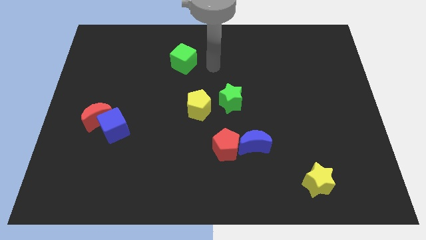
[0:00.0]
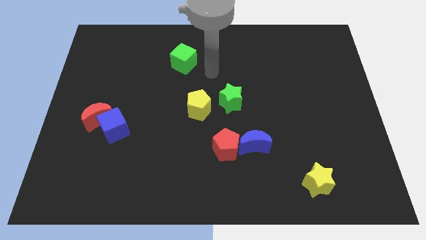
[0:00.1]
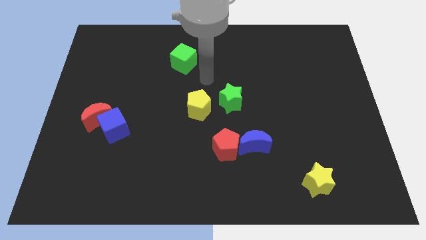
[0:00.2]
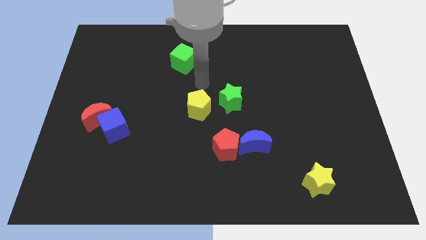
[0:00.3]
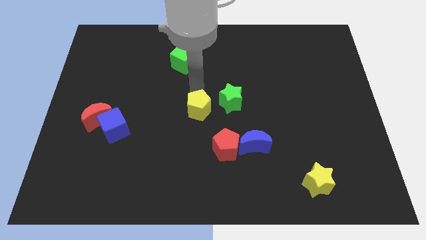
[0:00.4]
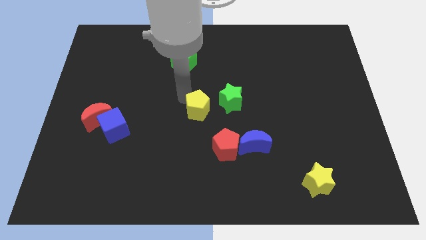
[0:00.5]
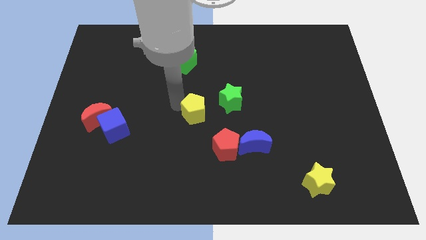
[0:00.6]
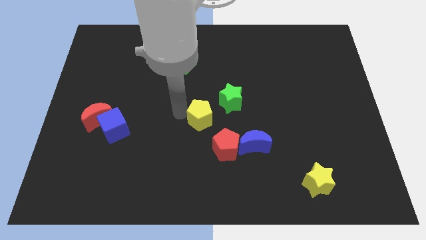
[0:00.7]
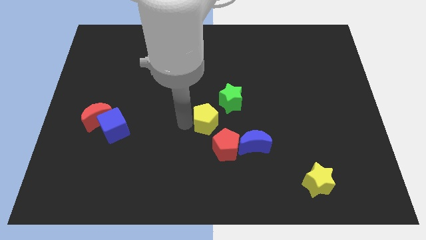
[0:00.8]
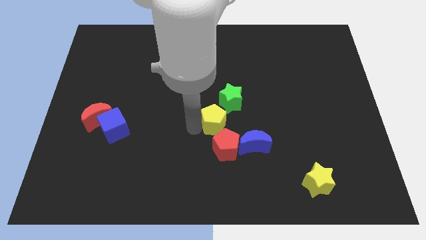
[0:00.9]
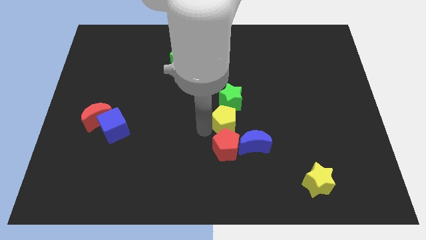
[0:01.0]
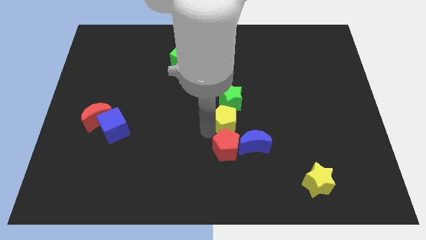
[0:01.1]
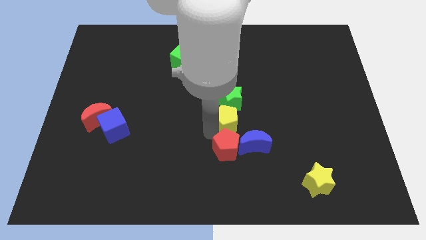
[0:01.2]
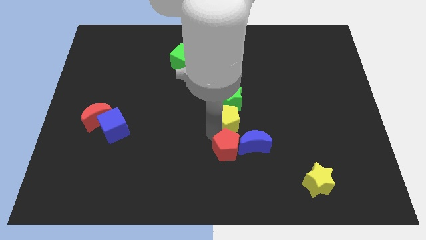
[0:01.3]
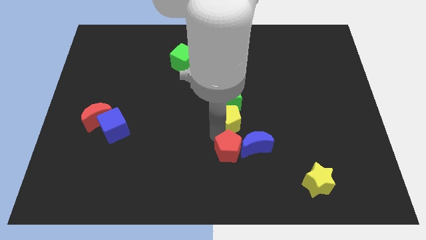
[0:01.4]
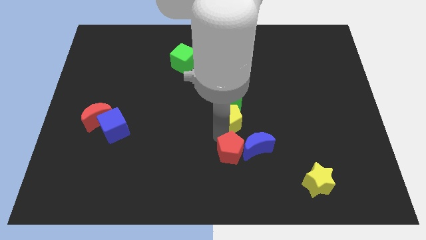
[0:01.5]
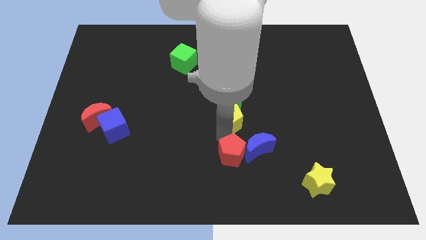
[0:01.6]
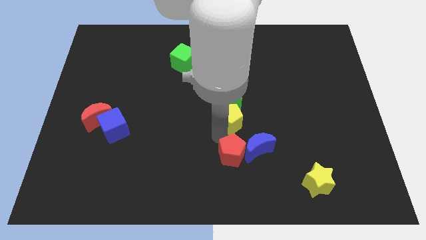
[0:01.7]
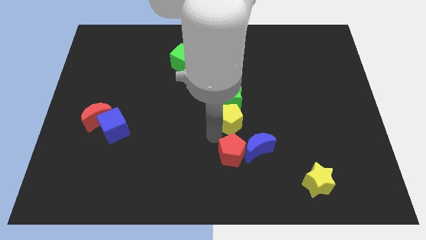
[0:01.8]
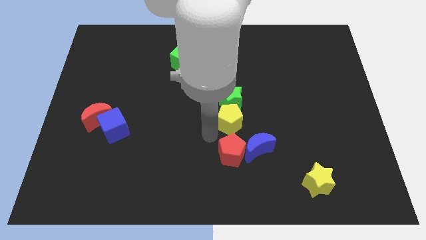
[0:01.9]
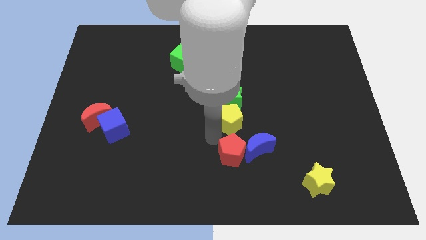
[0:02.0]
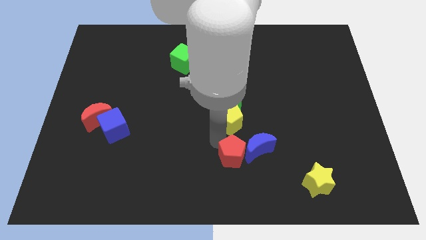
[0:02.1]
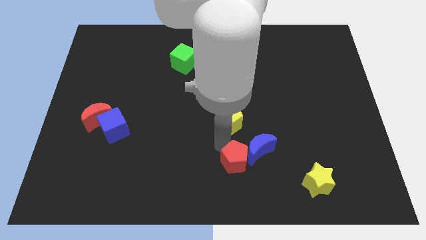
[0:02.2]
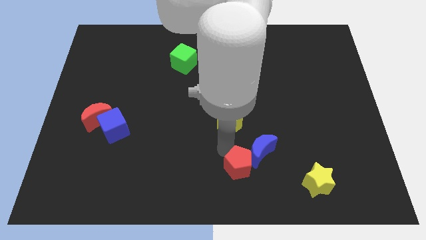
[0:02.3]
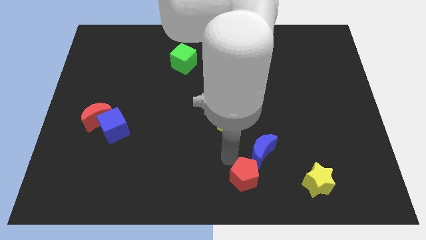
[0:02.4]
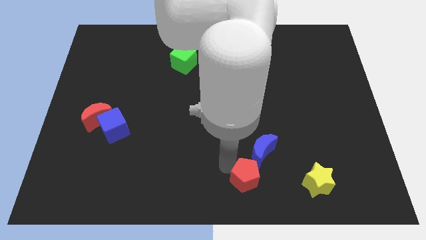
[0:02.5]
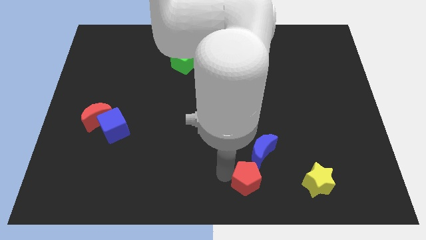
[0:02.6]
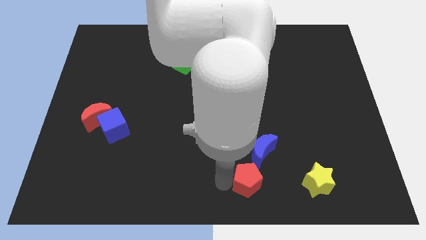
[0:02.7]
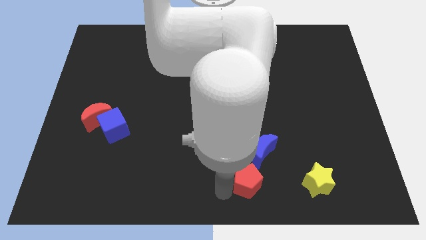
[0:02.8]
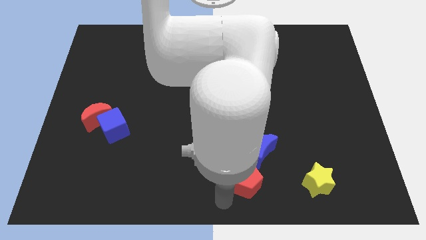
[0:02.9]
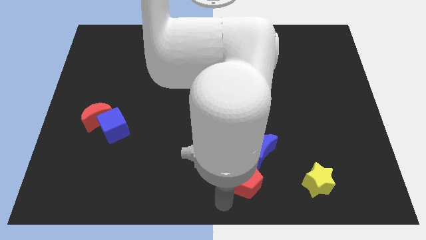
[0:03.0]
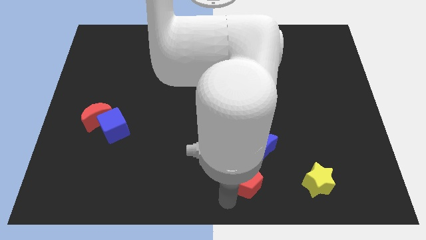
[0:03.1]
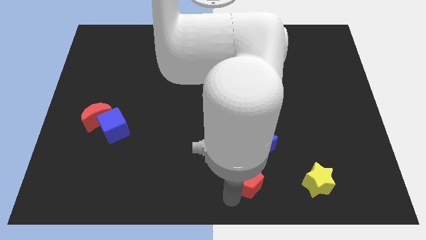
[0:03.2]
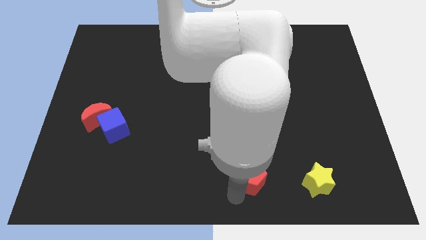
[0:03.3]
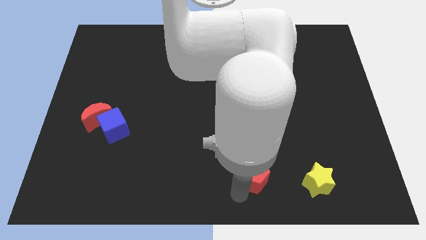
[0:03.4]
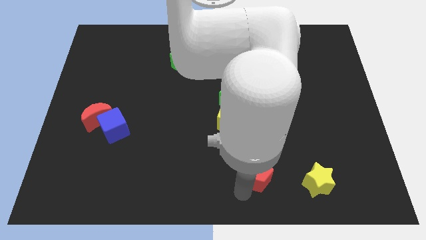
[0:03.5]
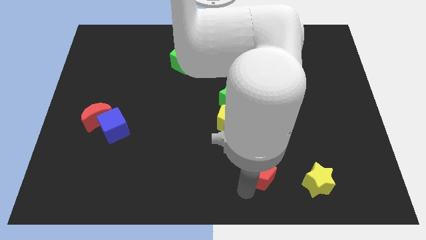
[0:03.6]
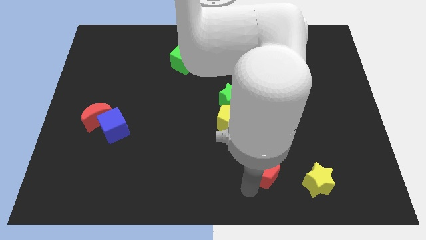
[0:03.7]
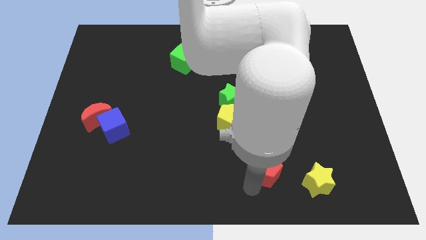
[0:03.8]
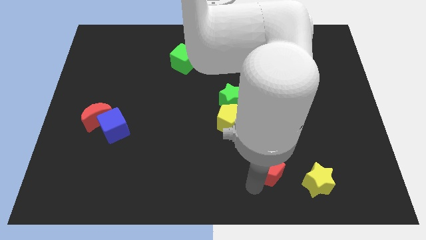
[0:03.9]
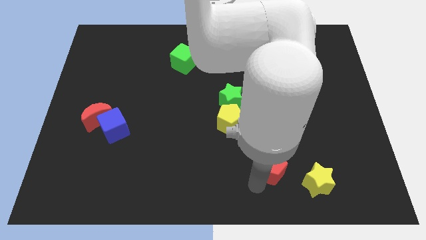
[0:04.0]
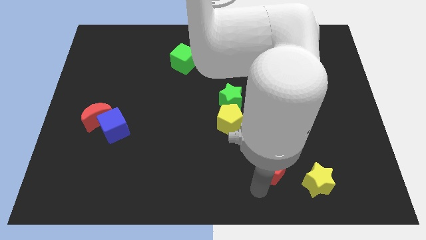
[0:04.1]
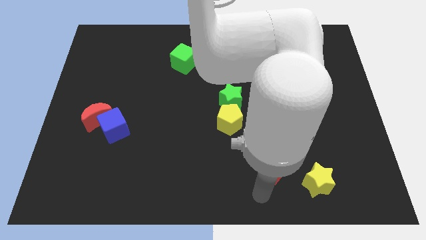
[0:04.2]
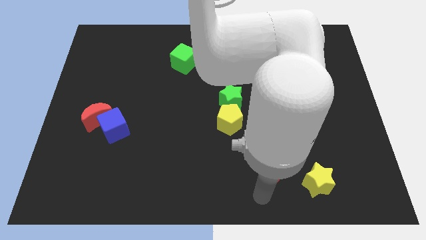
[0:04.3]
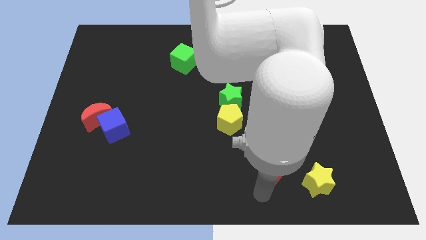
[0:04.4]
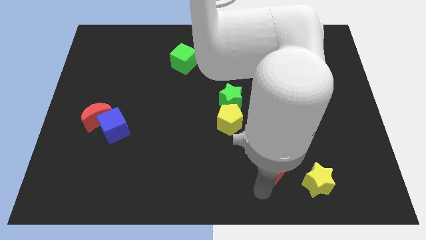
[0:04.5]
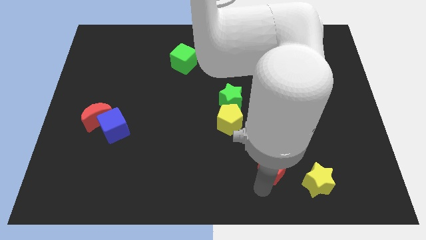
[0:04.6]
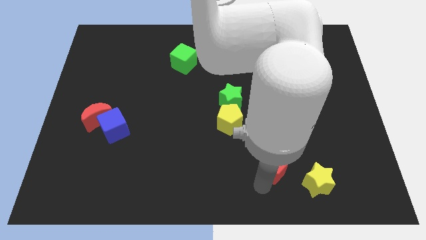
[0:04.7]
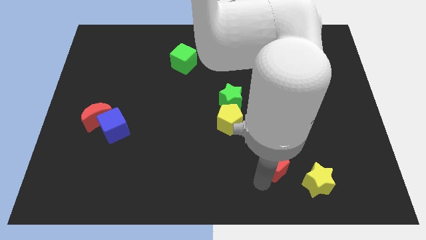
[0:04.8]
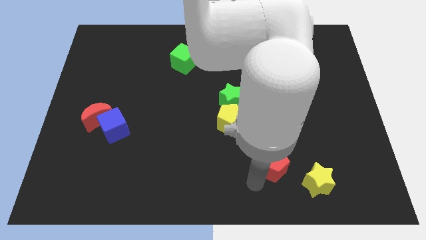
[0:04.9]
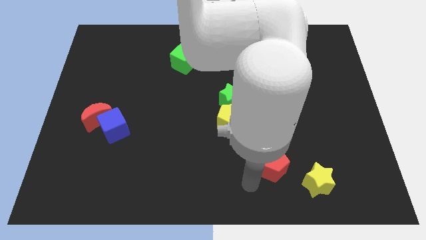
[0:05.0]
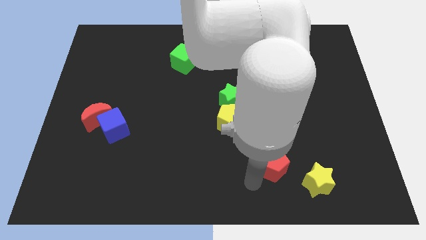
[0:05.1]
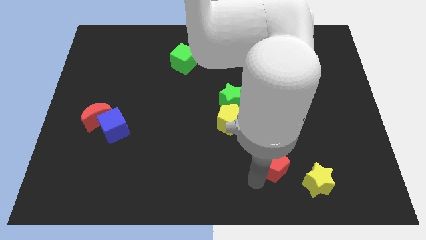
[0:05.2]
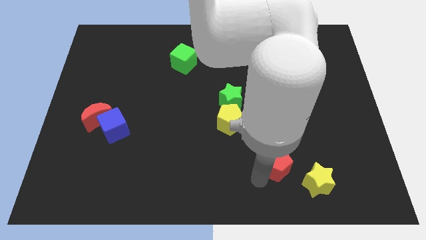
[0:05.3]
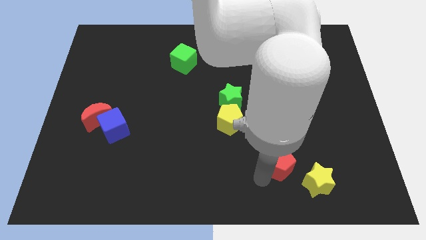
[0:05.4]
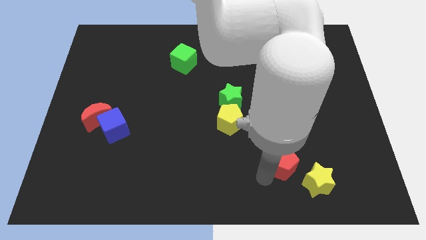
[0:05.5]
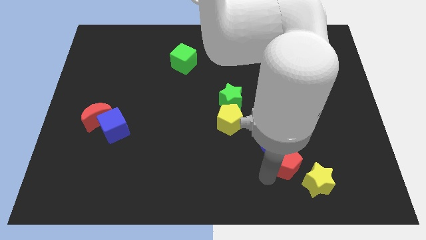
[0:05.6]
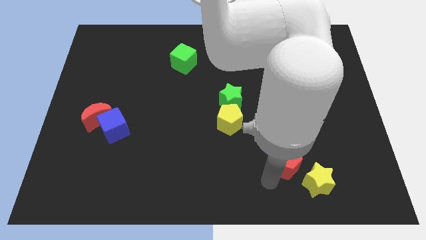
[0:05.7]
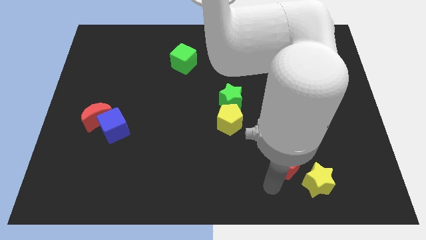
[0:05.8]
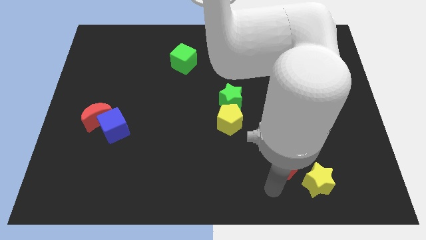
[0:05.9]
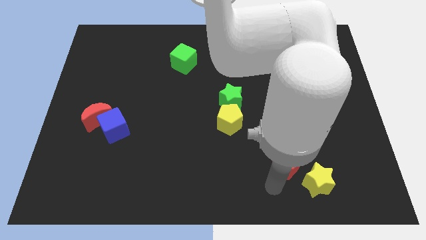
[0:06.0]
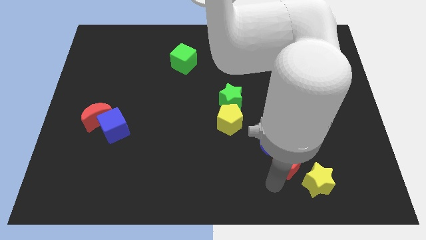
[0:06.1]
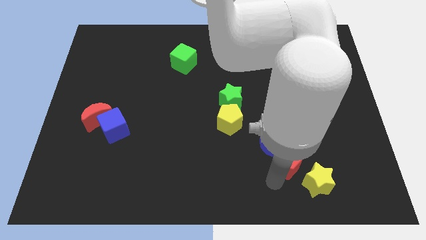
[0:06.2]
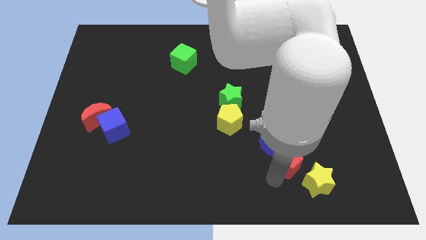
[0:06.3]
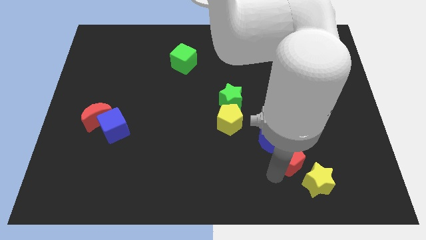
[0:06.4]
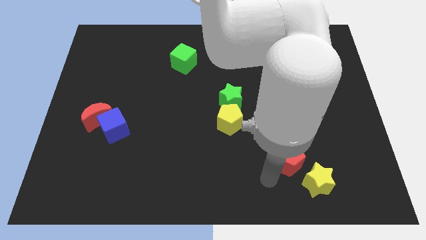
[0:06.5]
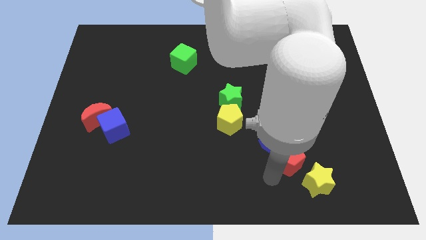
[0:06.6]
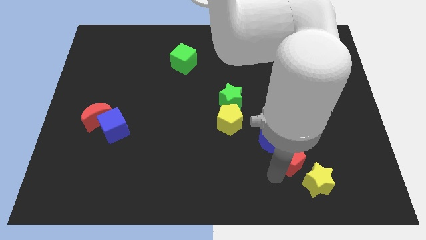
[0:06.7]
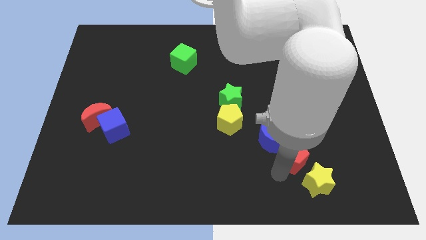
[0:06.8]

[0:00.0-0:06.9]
slide the red pentagon above the yellow star
